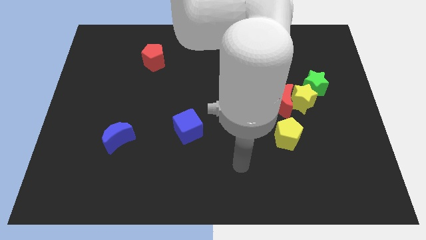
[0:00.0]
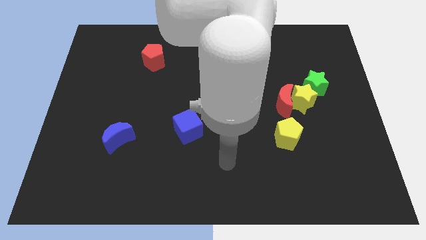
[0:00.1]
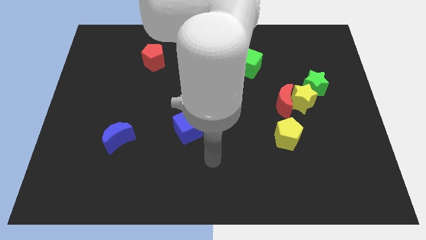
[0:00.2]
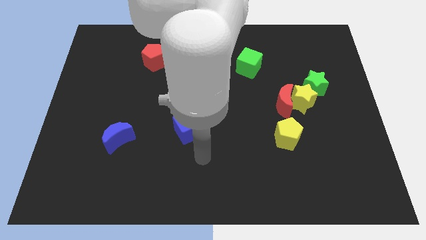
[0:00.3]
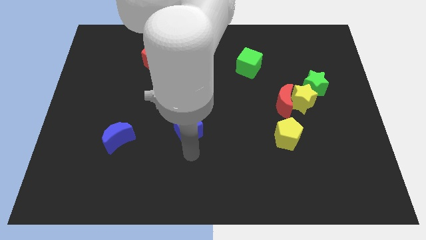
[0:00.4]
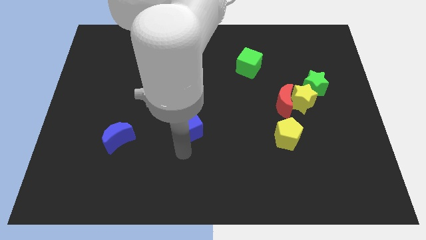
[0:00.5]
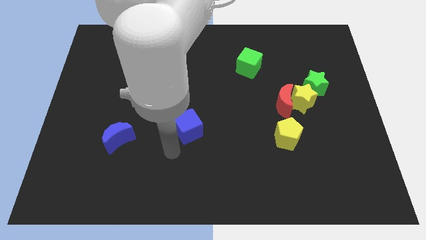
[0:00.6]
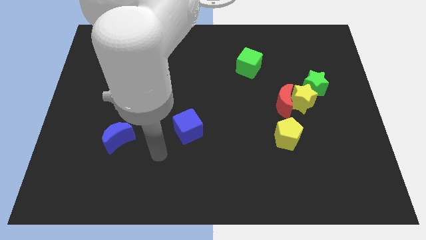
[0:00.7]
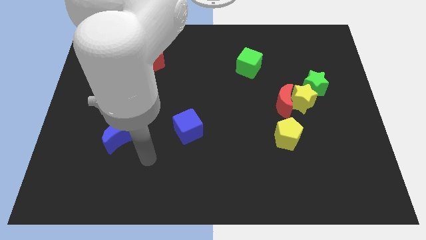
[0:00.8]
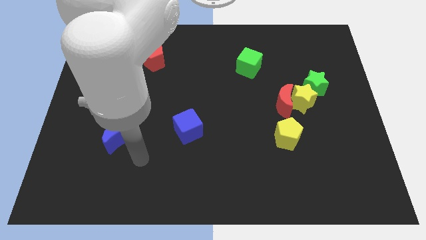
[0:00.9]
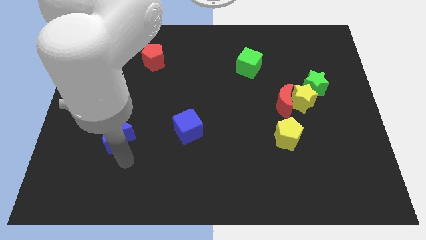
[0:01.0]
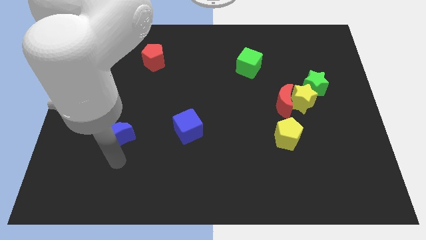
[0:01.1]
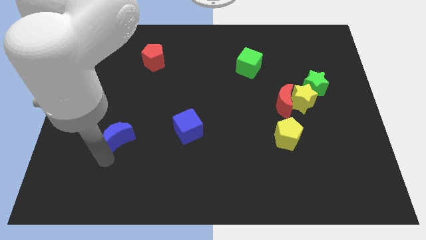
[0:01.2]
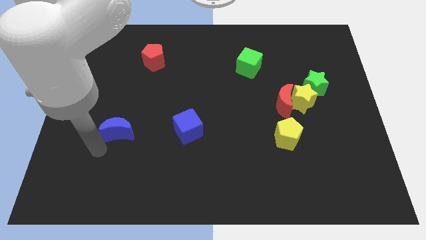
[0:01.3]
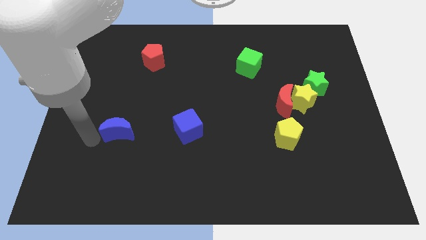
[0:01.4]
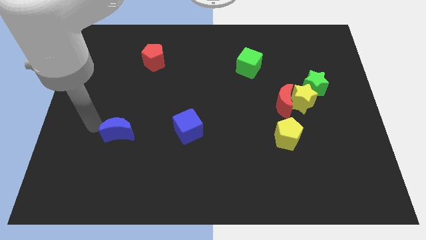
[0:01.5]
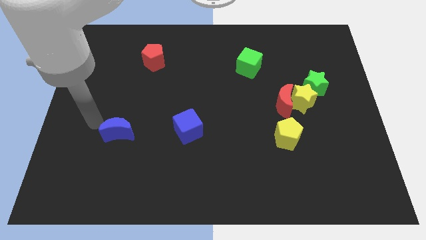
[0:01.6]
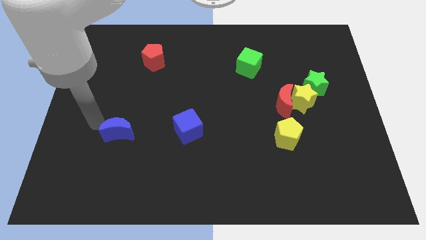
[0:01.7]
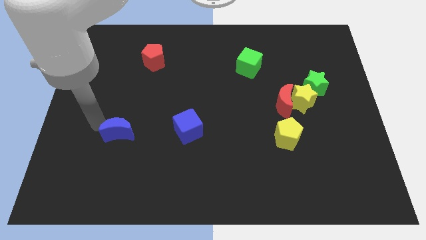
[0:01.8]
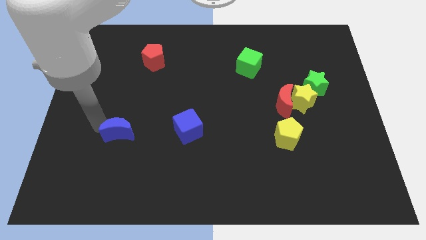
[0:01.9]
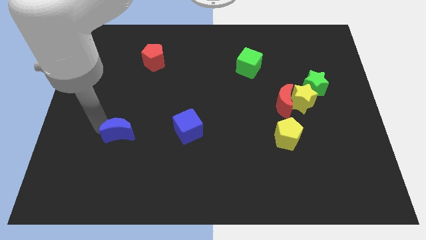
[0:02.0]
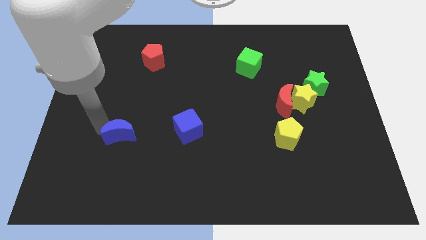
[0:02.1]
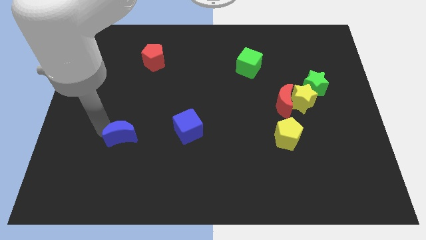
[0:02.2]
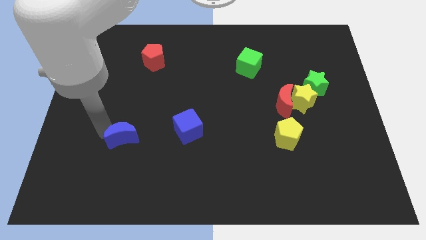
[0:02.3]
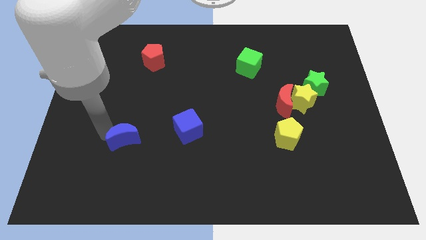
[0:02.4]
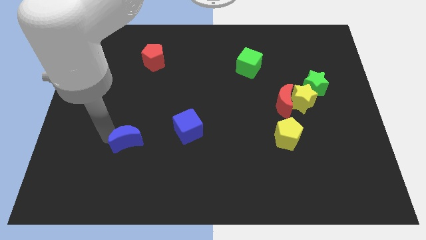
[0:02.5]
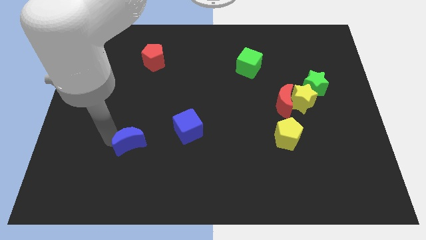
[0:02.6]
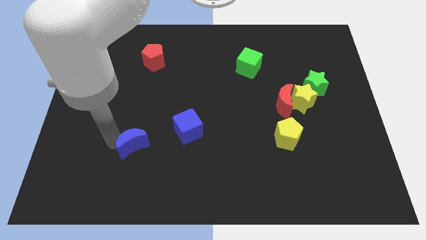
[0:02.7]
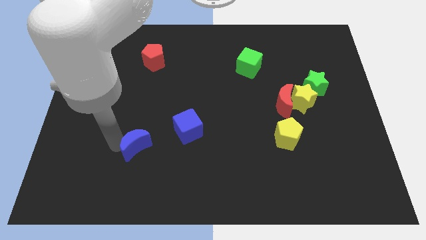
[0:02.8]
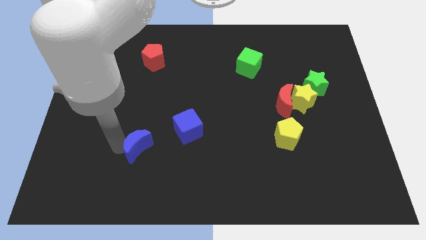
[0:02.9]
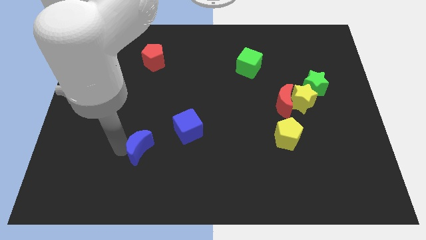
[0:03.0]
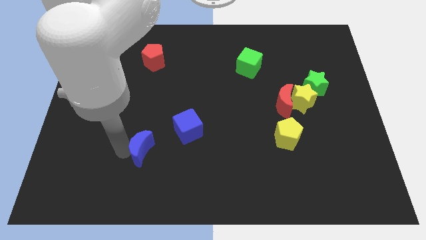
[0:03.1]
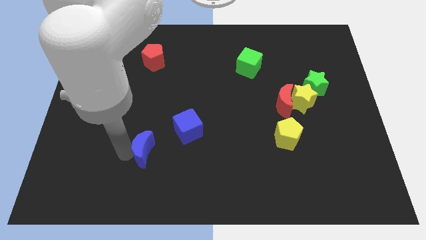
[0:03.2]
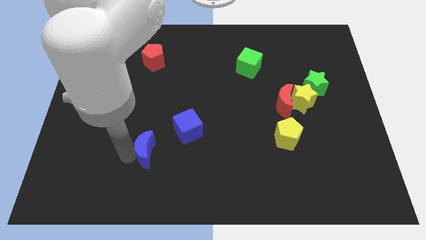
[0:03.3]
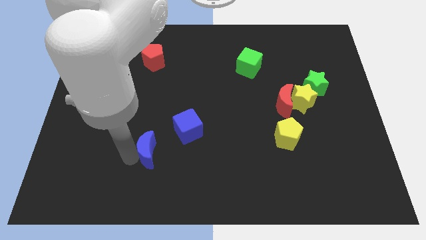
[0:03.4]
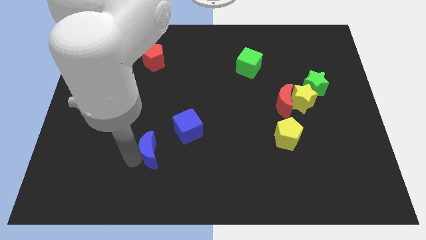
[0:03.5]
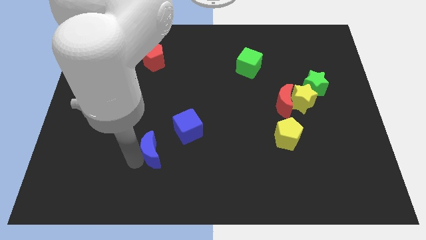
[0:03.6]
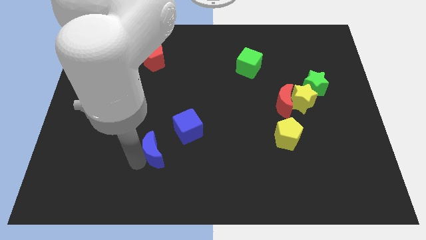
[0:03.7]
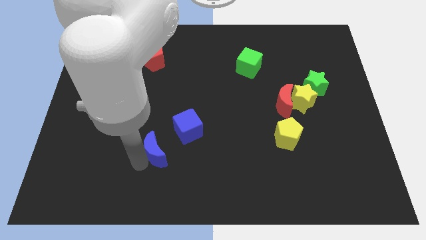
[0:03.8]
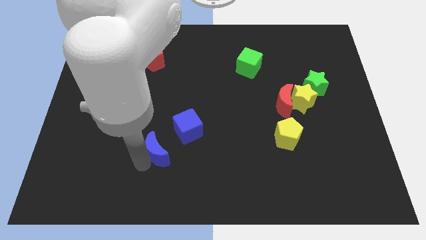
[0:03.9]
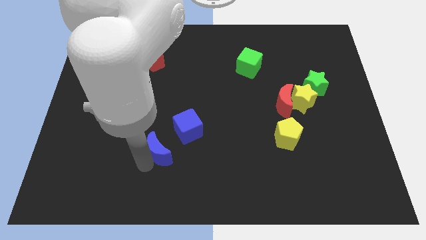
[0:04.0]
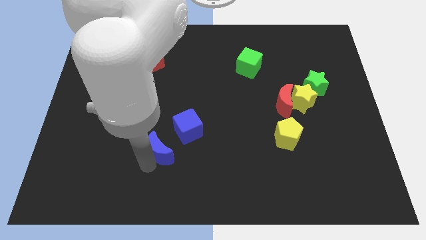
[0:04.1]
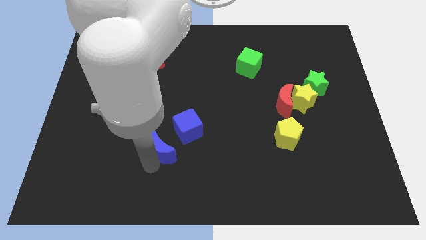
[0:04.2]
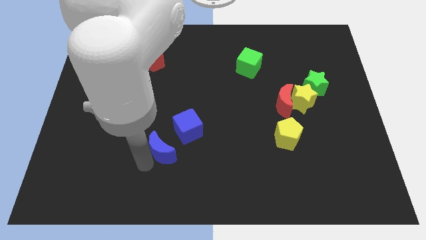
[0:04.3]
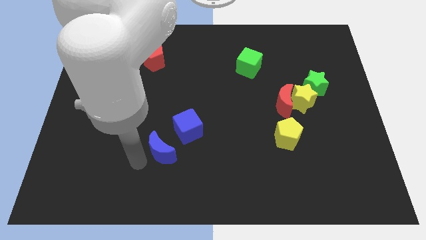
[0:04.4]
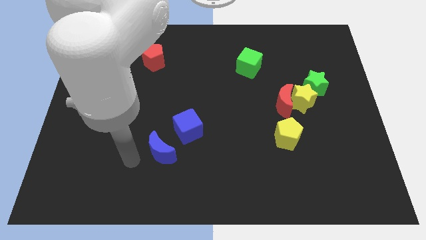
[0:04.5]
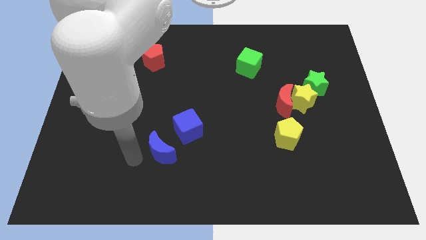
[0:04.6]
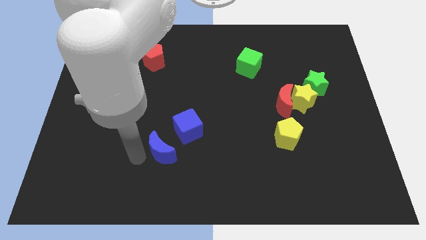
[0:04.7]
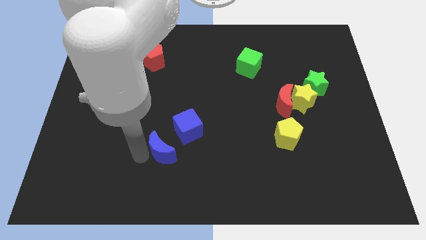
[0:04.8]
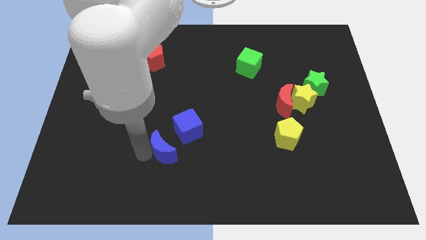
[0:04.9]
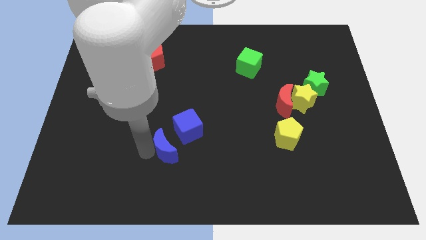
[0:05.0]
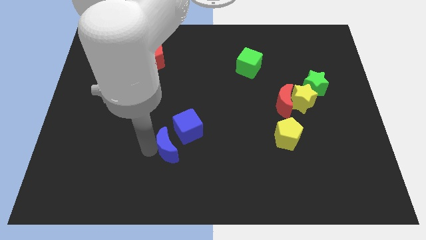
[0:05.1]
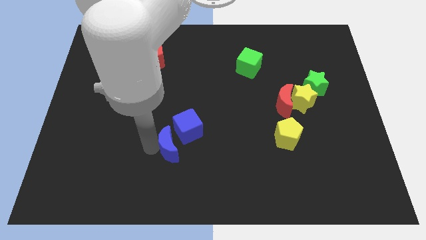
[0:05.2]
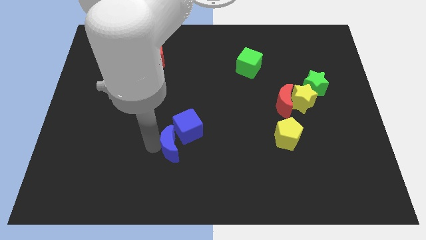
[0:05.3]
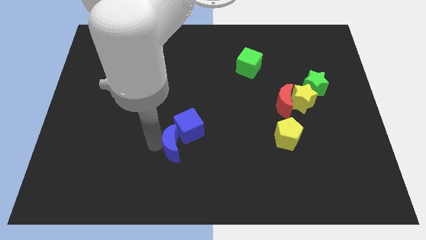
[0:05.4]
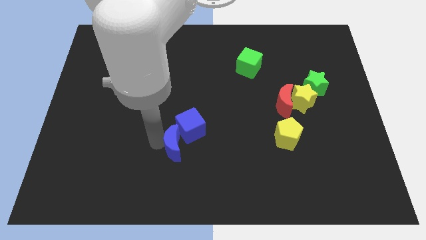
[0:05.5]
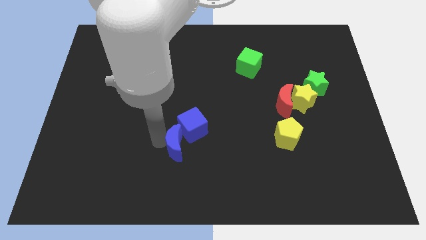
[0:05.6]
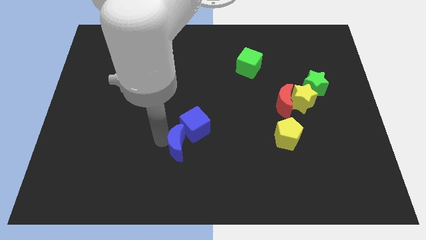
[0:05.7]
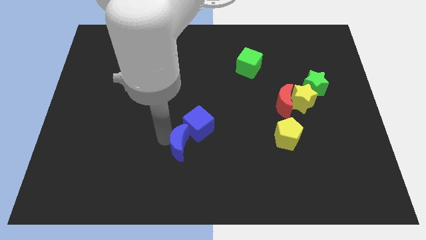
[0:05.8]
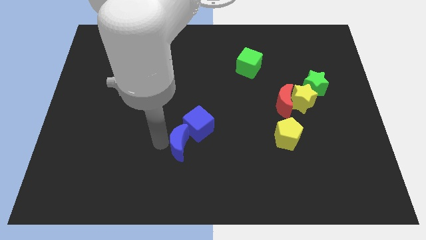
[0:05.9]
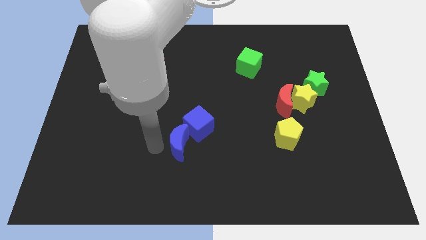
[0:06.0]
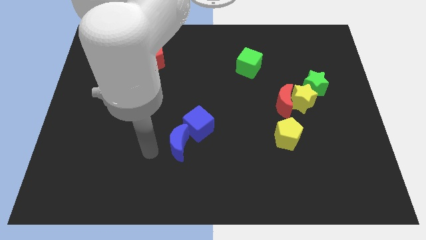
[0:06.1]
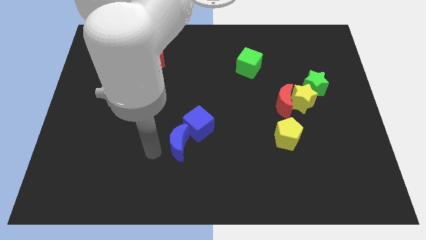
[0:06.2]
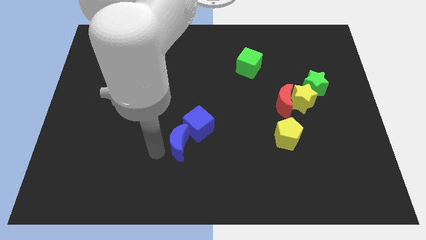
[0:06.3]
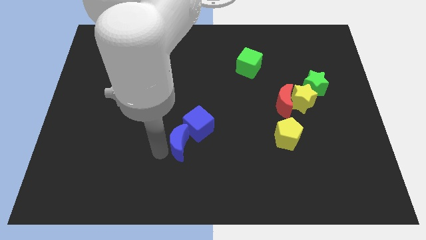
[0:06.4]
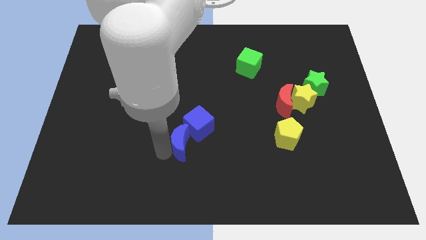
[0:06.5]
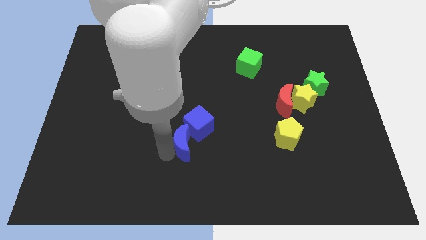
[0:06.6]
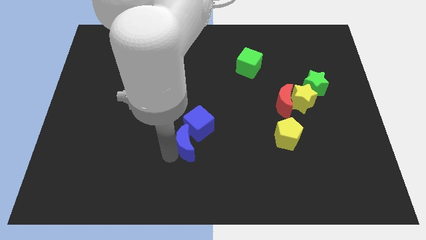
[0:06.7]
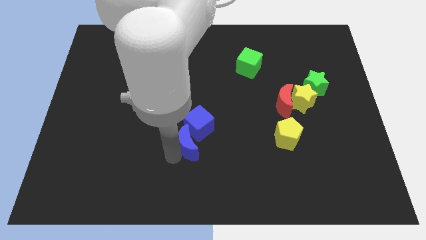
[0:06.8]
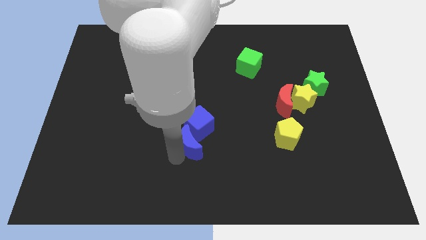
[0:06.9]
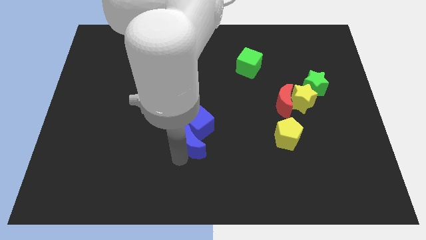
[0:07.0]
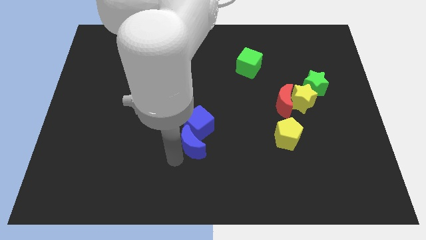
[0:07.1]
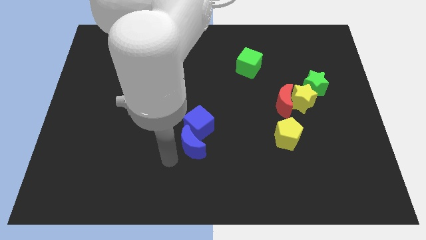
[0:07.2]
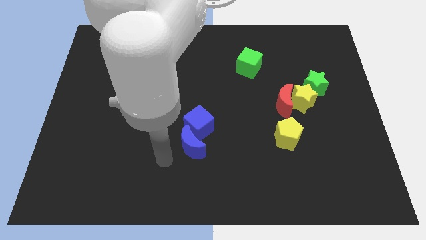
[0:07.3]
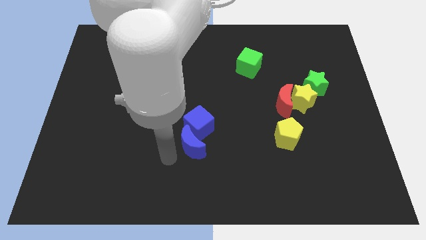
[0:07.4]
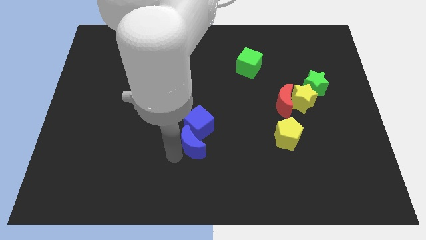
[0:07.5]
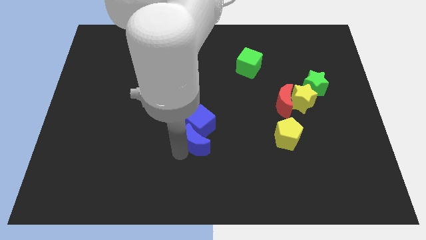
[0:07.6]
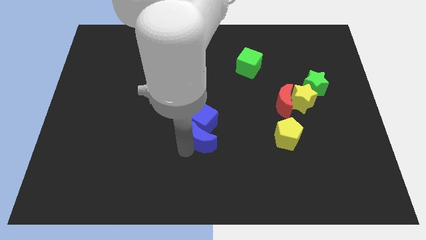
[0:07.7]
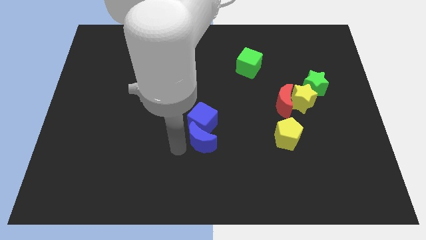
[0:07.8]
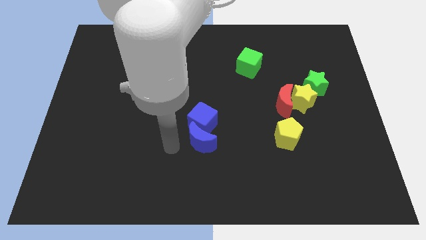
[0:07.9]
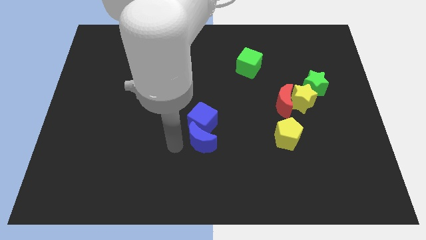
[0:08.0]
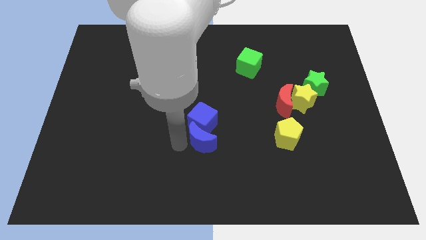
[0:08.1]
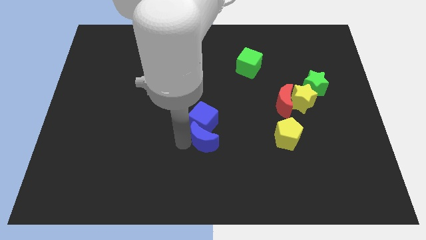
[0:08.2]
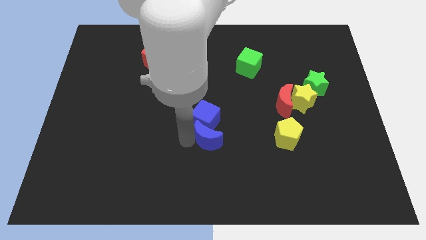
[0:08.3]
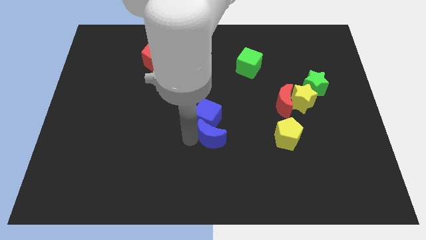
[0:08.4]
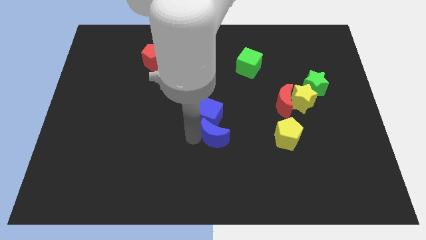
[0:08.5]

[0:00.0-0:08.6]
push the blue moon to the left of the yellow pentagon
